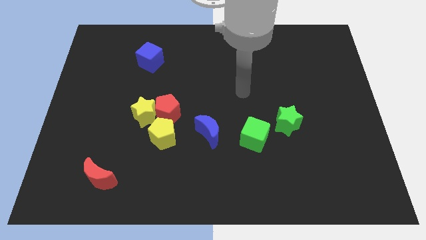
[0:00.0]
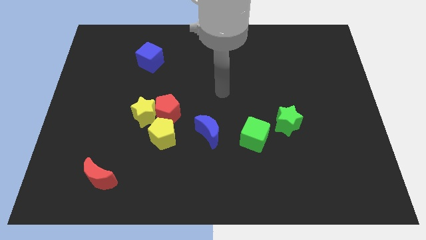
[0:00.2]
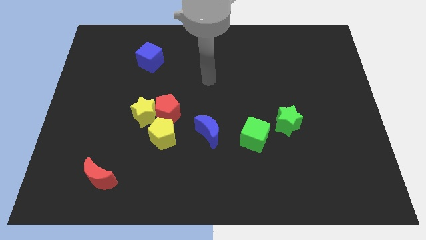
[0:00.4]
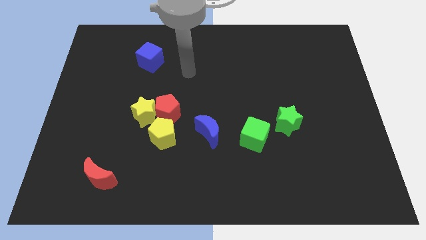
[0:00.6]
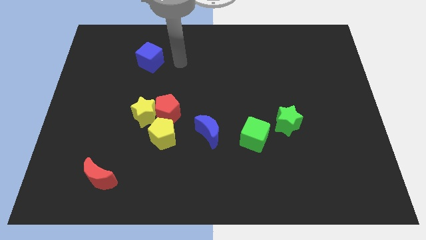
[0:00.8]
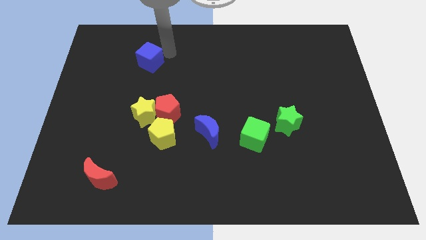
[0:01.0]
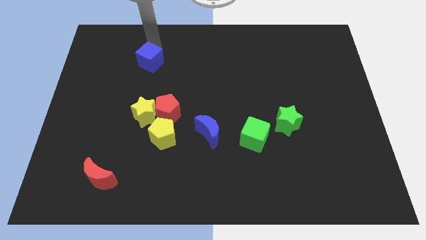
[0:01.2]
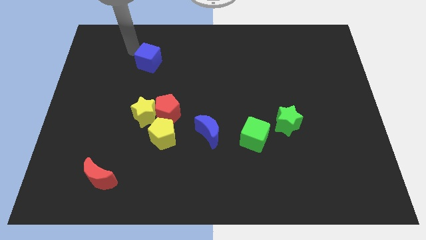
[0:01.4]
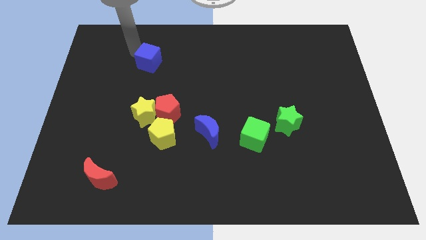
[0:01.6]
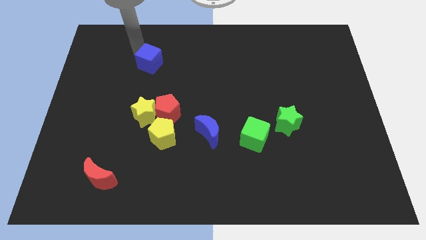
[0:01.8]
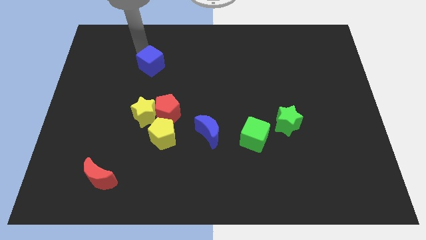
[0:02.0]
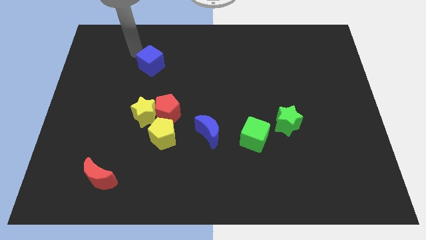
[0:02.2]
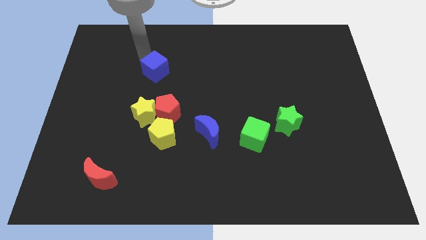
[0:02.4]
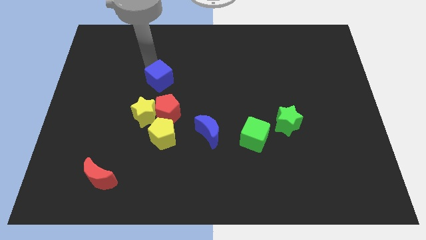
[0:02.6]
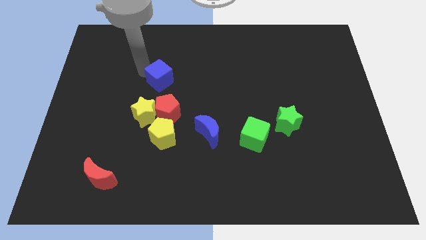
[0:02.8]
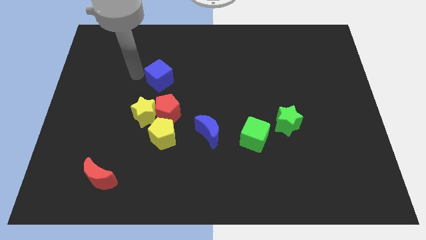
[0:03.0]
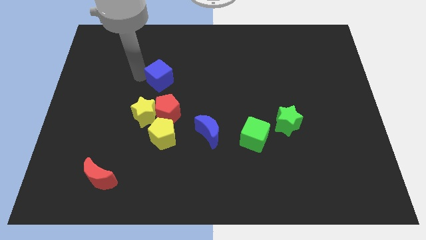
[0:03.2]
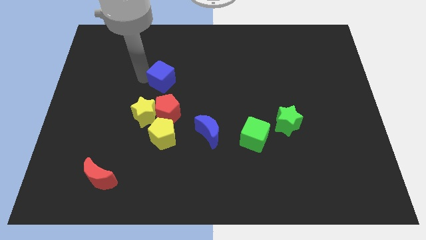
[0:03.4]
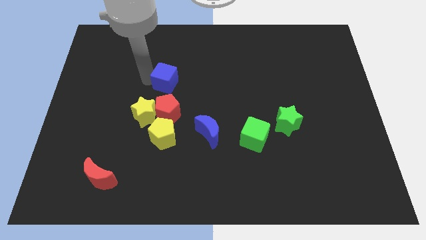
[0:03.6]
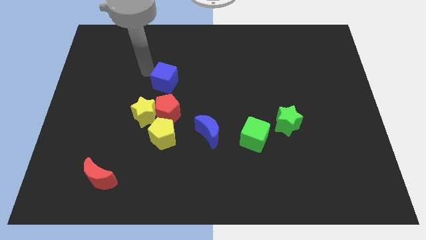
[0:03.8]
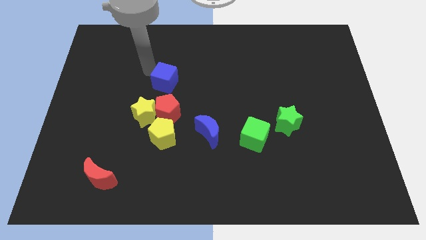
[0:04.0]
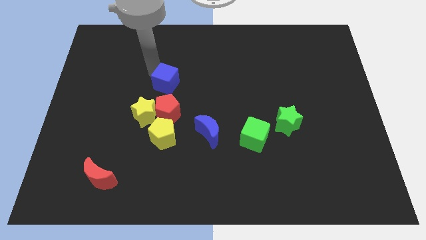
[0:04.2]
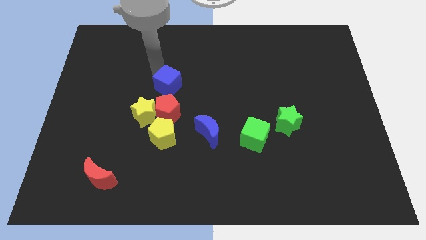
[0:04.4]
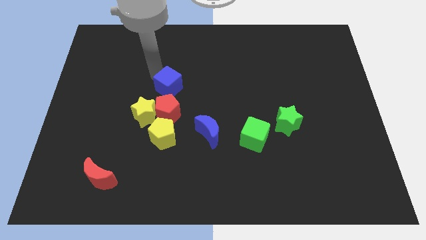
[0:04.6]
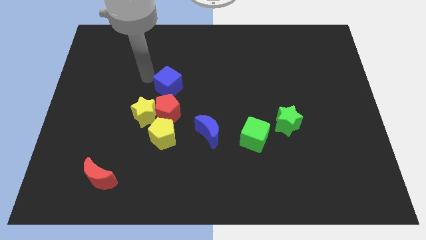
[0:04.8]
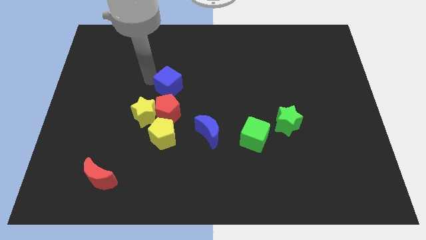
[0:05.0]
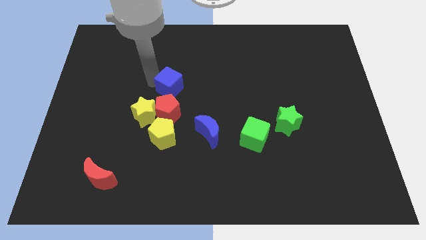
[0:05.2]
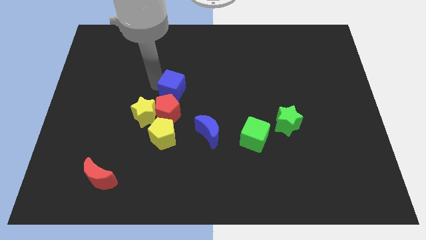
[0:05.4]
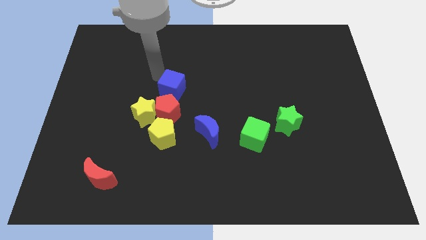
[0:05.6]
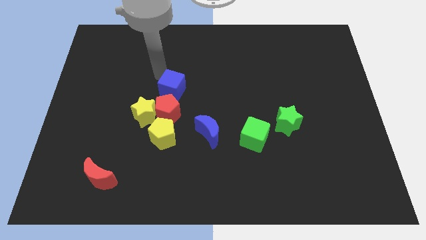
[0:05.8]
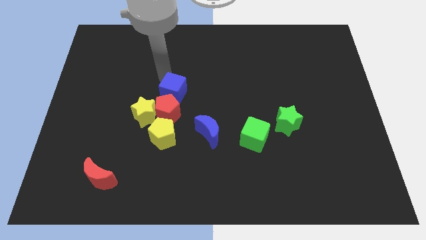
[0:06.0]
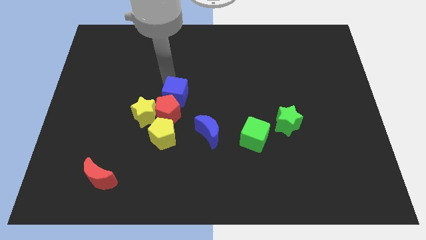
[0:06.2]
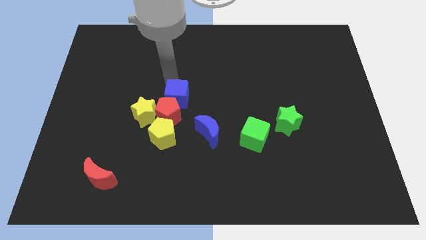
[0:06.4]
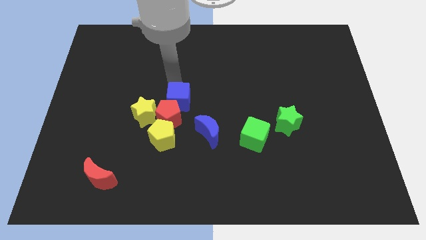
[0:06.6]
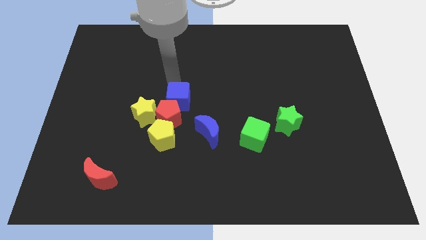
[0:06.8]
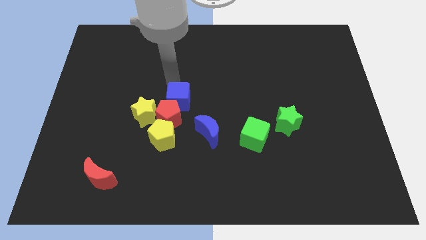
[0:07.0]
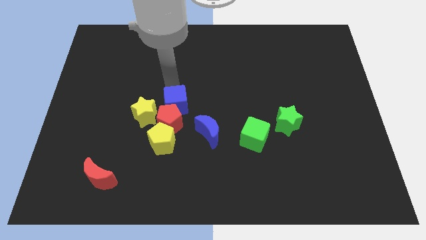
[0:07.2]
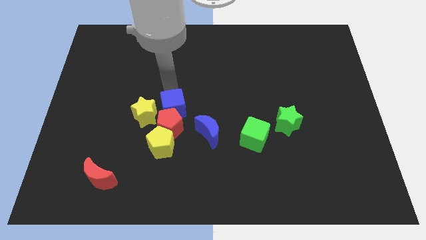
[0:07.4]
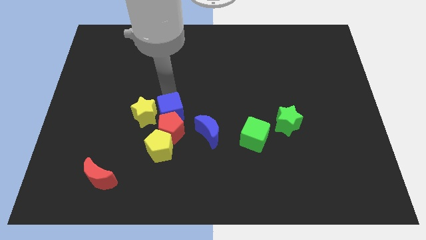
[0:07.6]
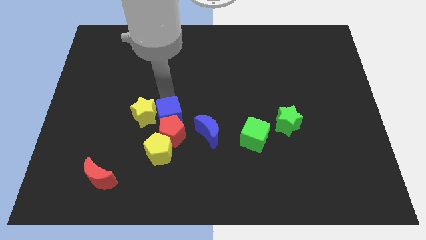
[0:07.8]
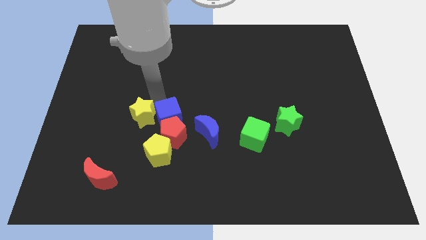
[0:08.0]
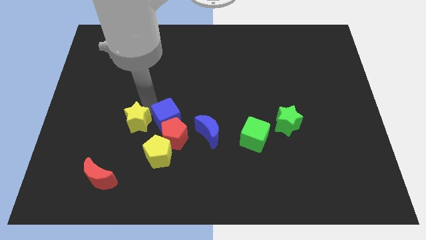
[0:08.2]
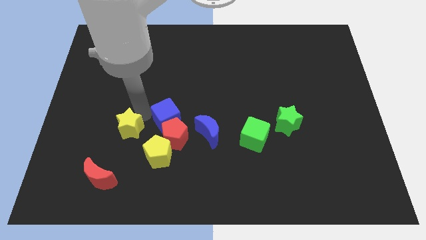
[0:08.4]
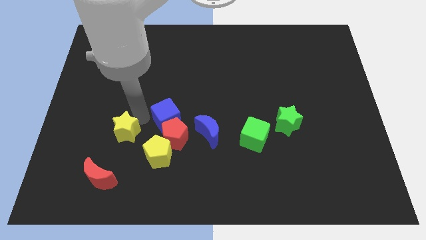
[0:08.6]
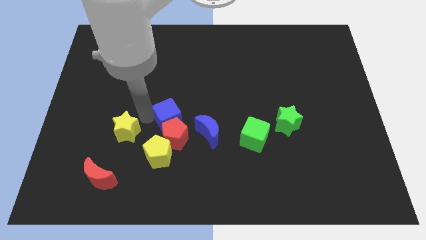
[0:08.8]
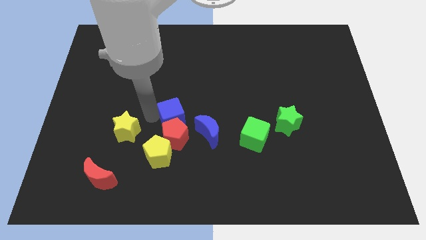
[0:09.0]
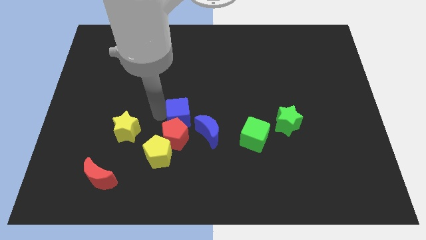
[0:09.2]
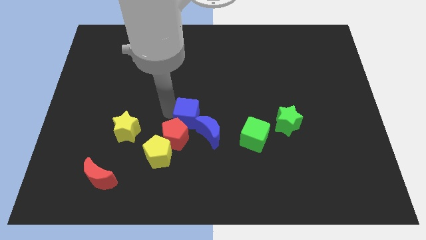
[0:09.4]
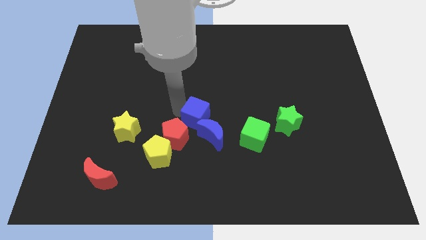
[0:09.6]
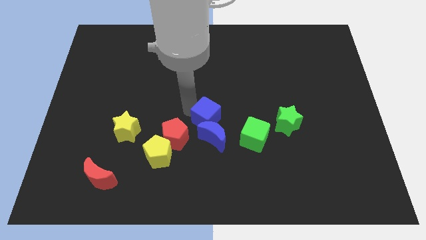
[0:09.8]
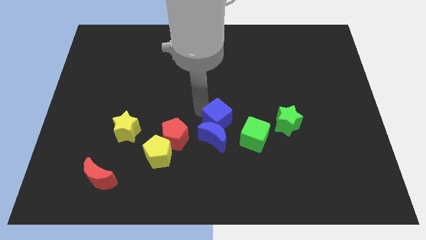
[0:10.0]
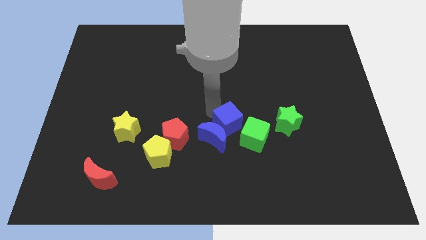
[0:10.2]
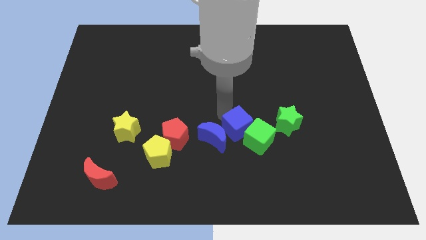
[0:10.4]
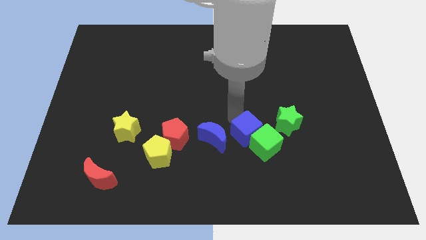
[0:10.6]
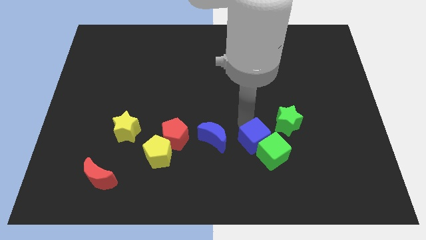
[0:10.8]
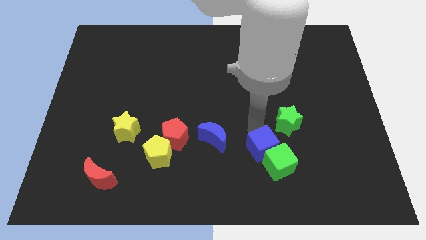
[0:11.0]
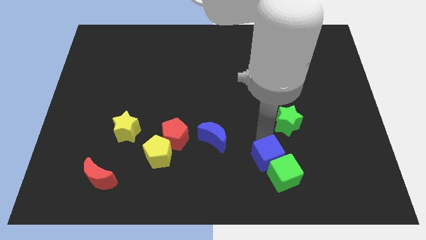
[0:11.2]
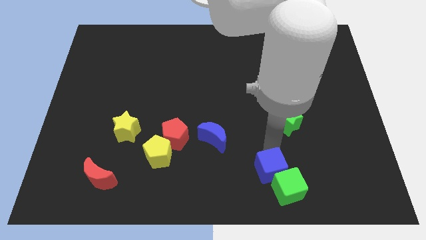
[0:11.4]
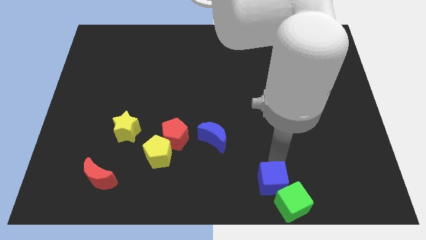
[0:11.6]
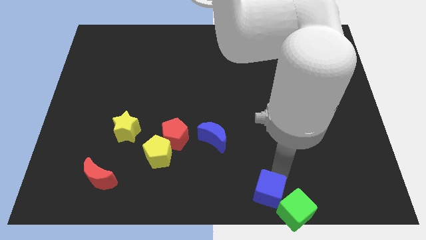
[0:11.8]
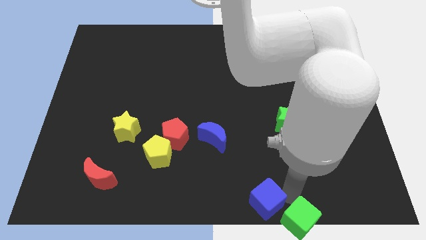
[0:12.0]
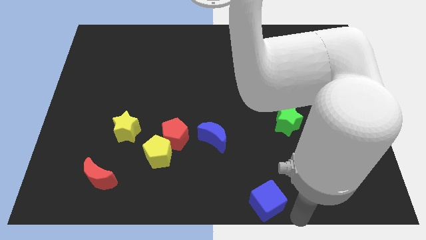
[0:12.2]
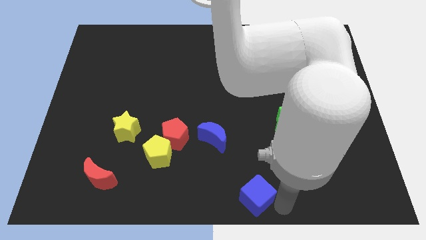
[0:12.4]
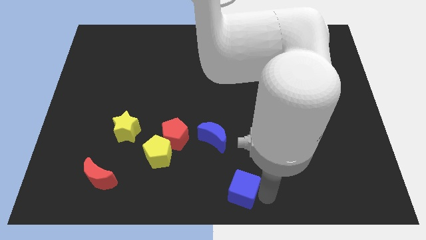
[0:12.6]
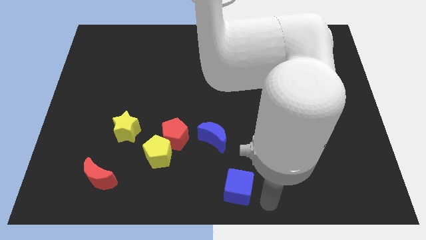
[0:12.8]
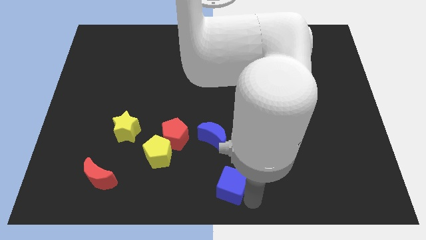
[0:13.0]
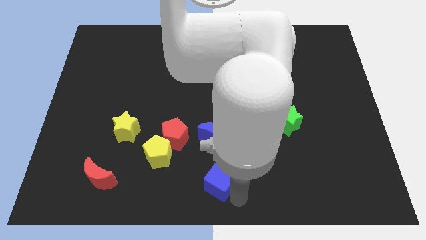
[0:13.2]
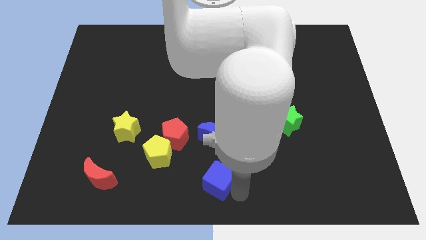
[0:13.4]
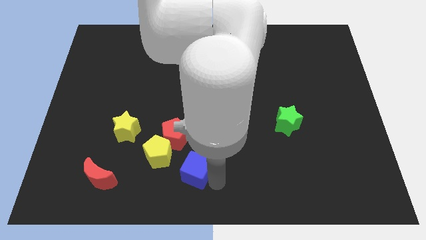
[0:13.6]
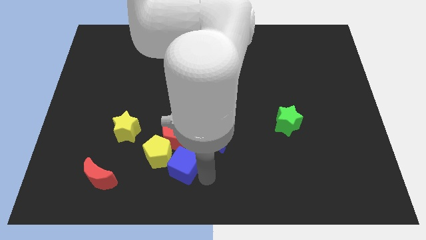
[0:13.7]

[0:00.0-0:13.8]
put the blue cube close to the yellow pentagon
